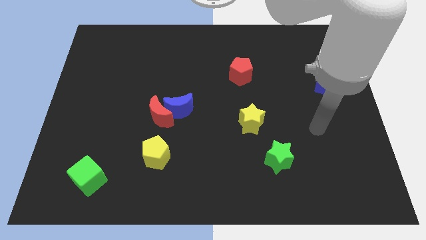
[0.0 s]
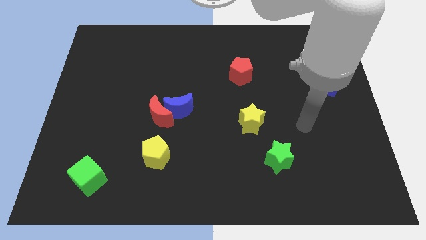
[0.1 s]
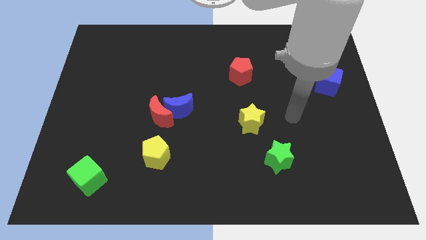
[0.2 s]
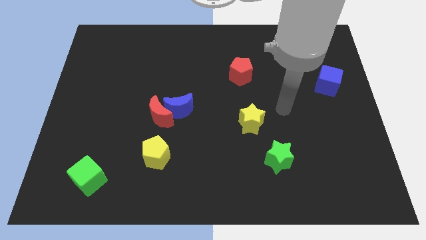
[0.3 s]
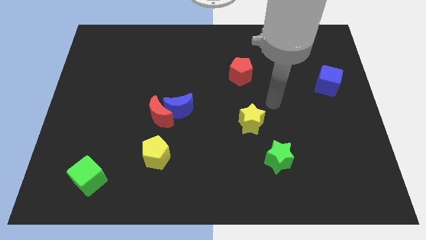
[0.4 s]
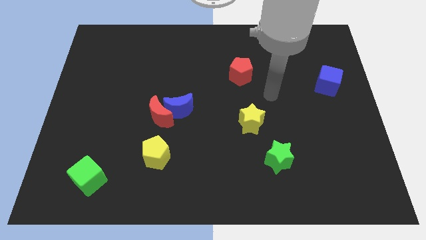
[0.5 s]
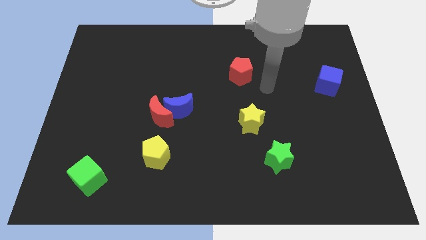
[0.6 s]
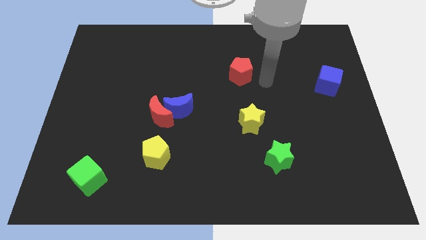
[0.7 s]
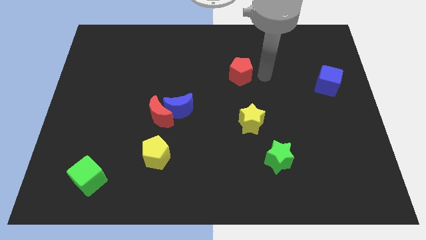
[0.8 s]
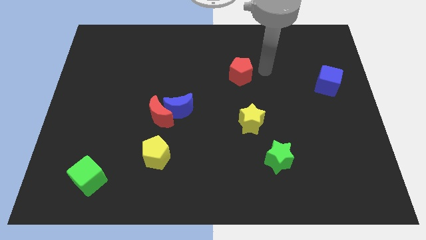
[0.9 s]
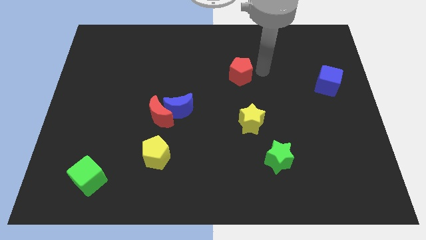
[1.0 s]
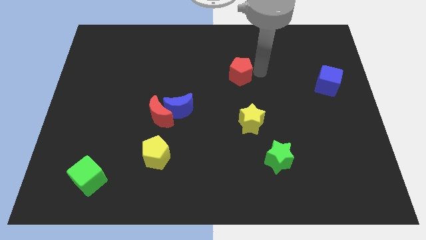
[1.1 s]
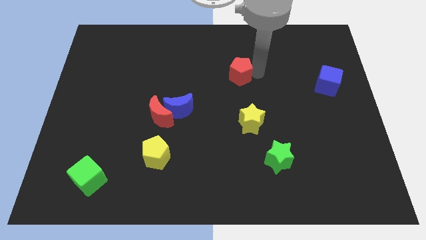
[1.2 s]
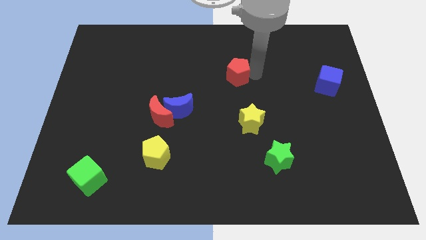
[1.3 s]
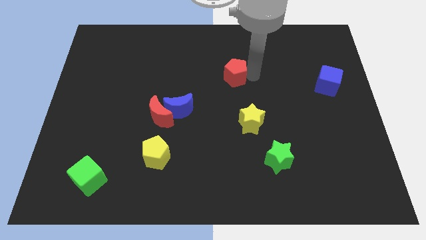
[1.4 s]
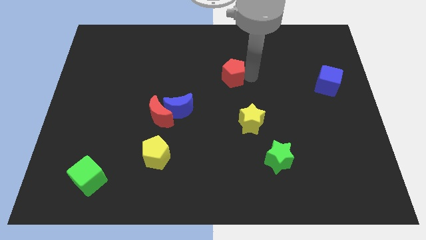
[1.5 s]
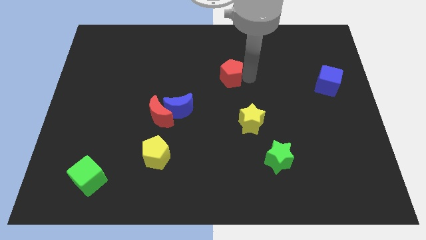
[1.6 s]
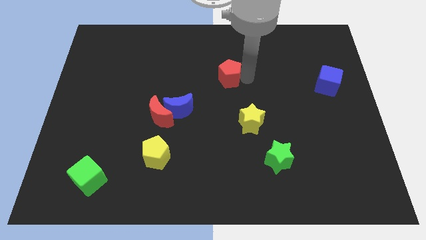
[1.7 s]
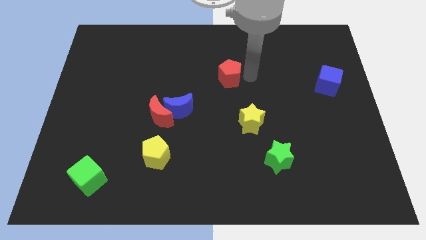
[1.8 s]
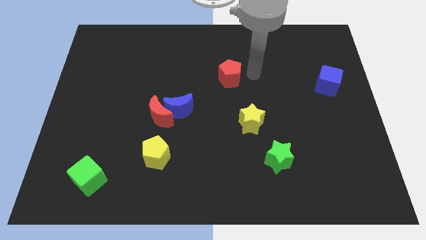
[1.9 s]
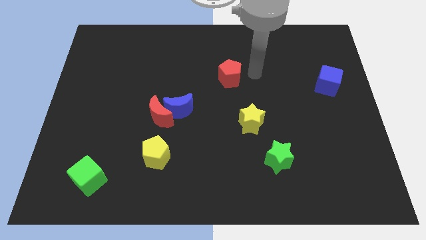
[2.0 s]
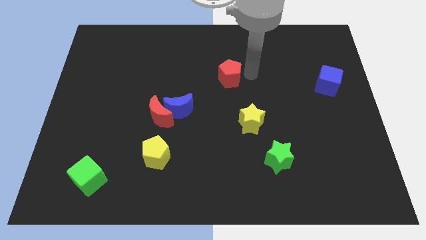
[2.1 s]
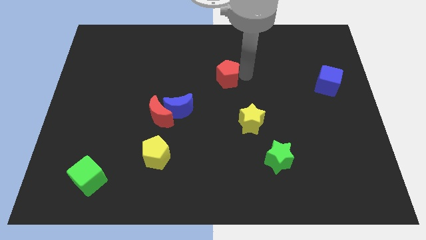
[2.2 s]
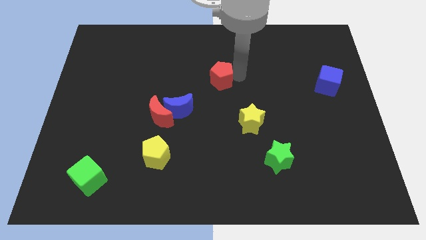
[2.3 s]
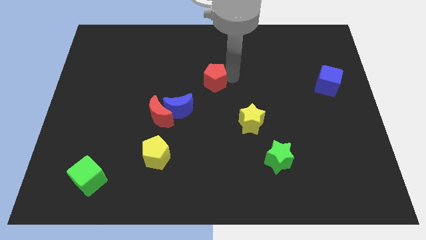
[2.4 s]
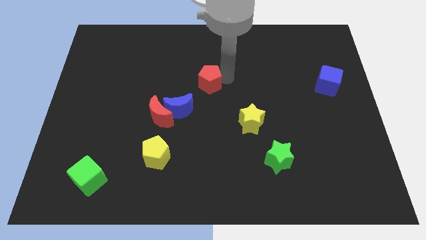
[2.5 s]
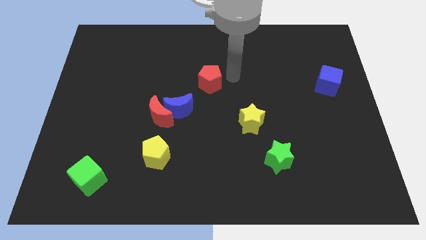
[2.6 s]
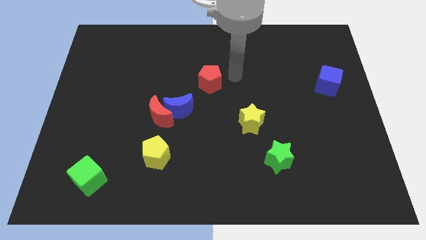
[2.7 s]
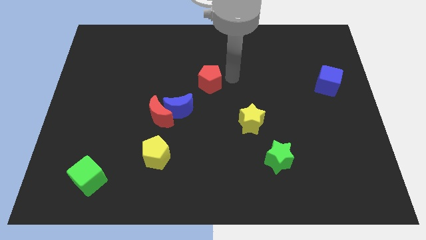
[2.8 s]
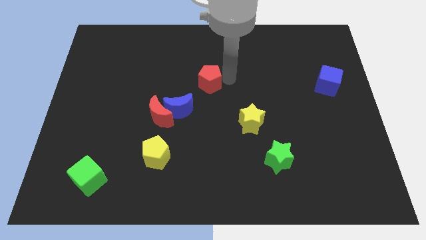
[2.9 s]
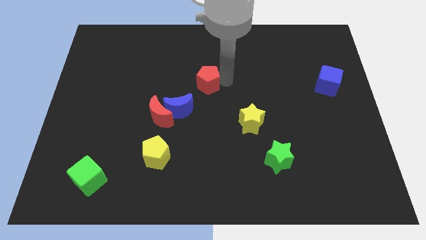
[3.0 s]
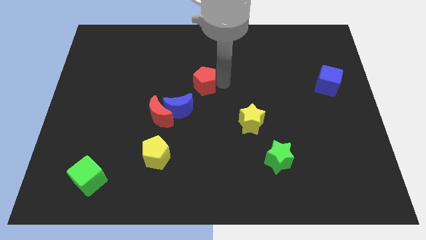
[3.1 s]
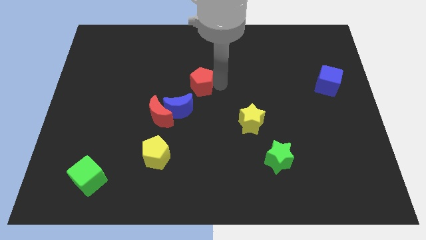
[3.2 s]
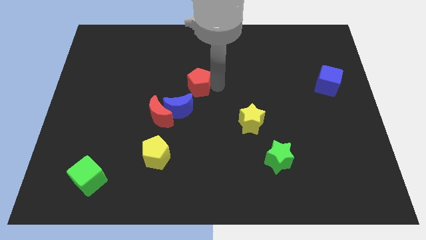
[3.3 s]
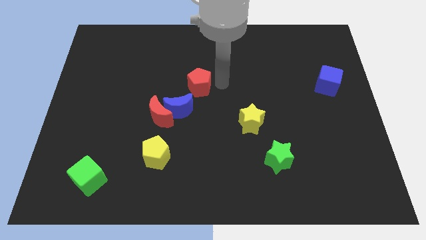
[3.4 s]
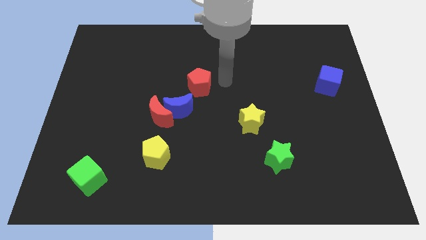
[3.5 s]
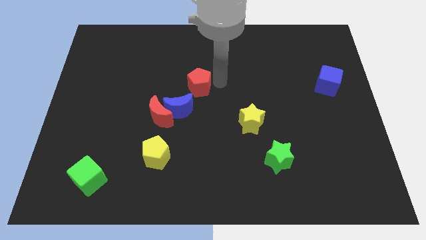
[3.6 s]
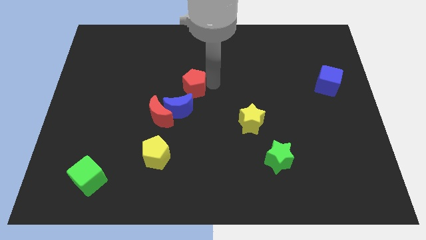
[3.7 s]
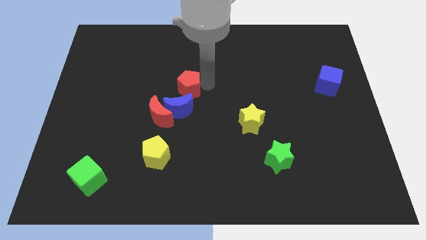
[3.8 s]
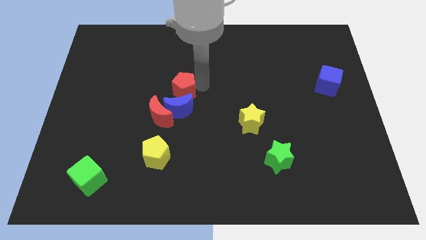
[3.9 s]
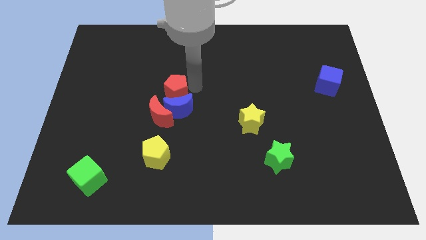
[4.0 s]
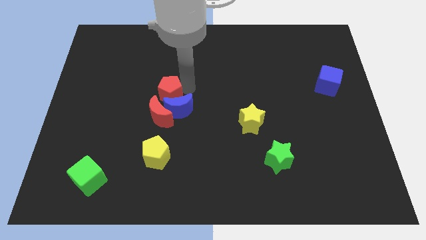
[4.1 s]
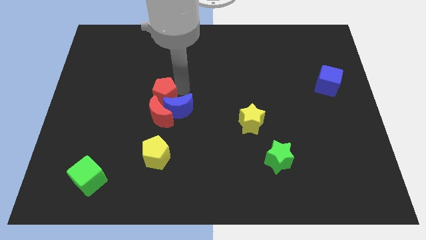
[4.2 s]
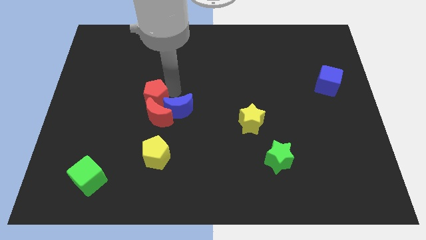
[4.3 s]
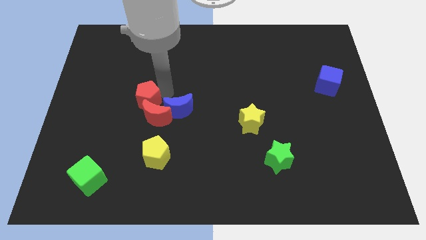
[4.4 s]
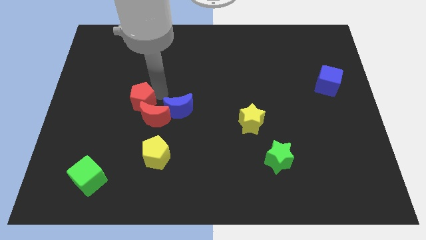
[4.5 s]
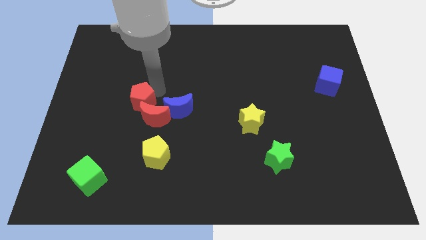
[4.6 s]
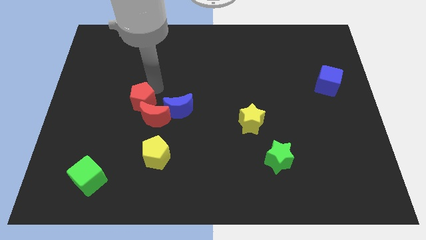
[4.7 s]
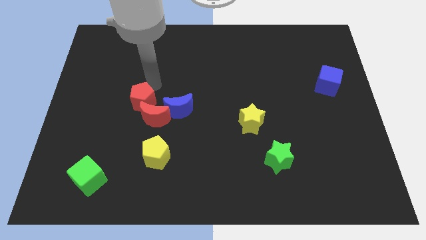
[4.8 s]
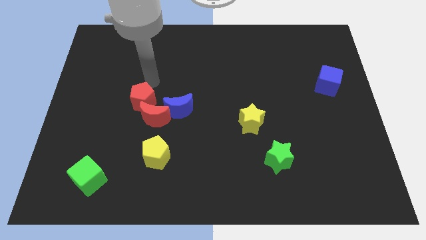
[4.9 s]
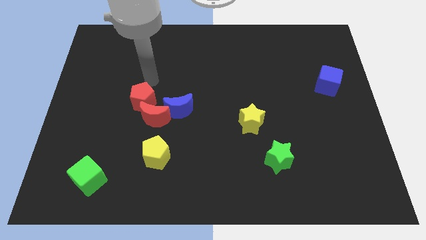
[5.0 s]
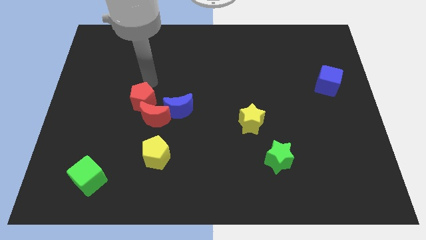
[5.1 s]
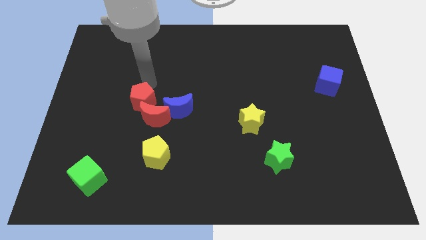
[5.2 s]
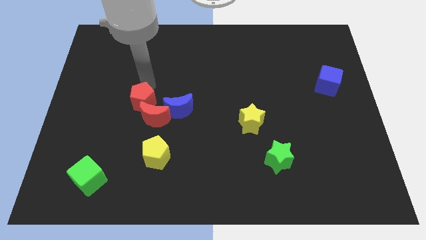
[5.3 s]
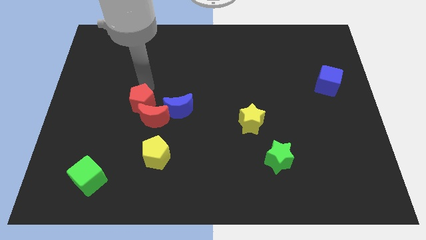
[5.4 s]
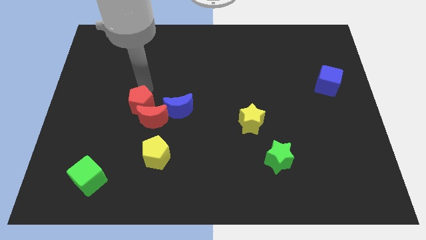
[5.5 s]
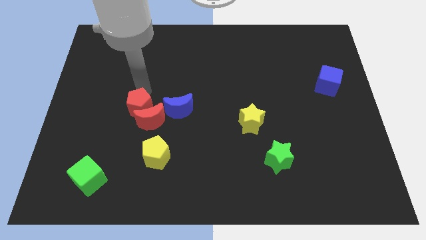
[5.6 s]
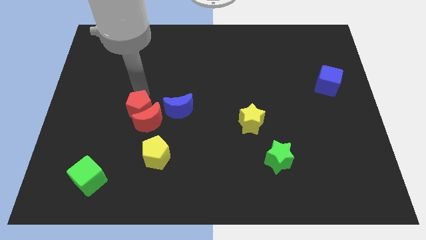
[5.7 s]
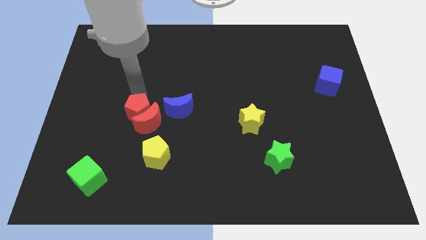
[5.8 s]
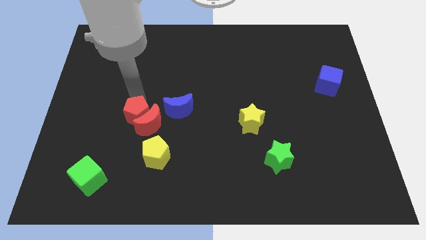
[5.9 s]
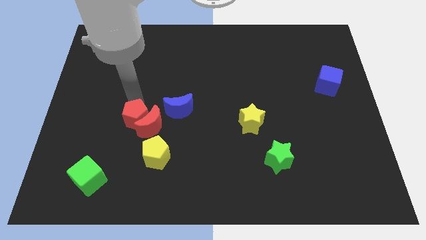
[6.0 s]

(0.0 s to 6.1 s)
move the red pentagon to the bottom left of the red moon

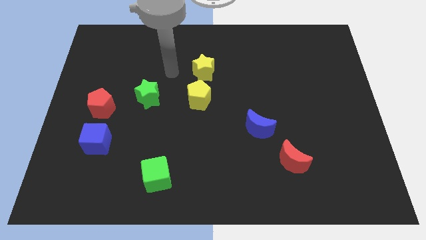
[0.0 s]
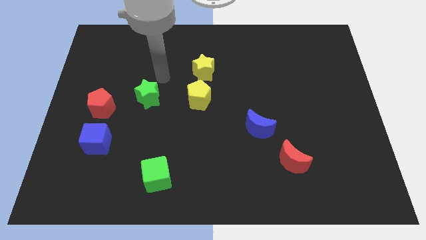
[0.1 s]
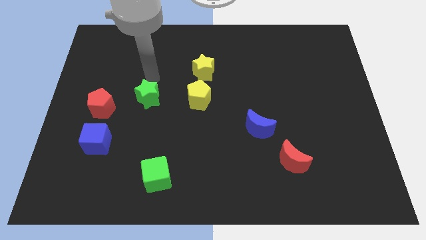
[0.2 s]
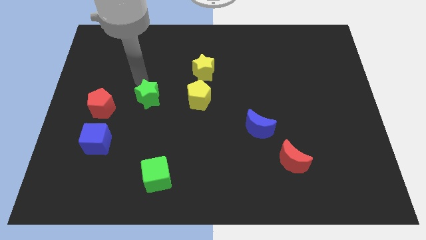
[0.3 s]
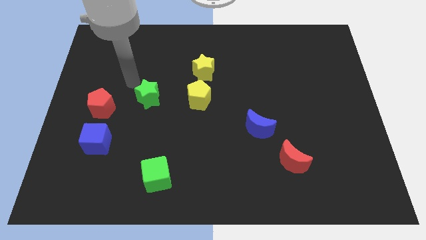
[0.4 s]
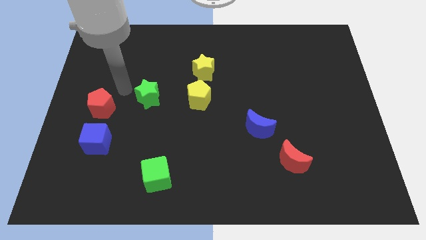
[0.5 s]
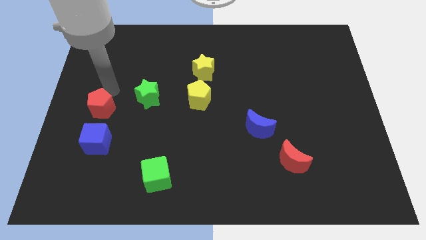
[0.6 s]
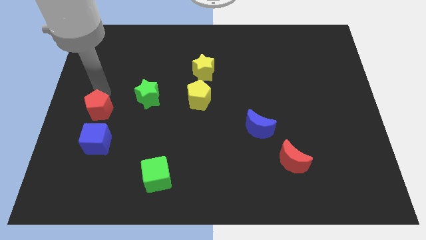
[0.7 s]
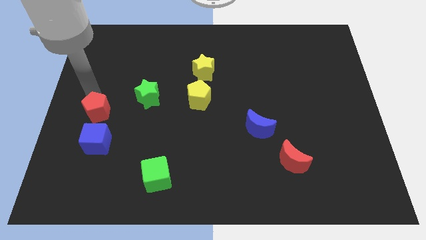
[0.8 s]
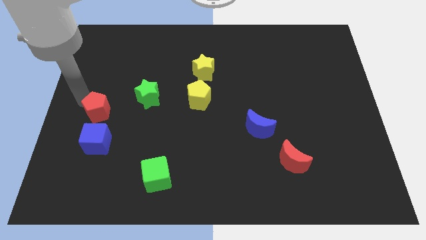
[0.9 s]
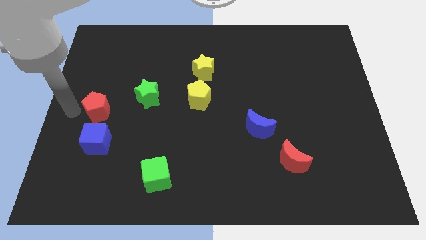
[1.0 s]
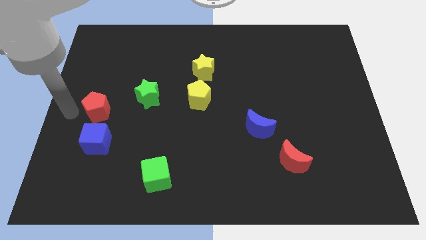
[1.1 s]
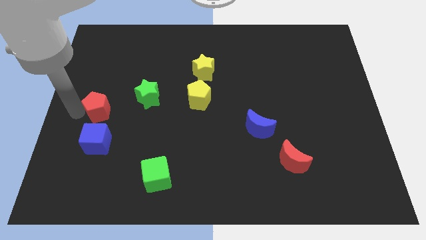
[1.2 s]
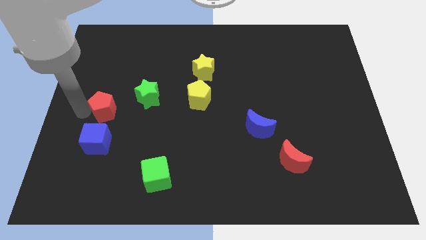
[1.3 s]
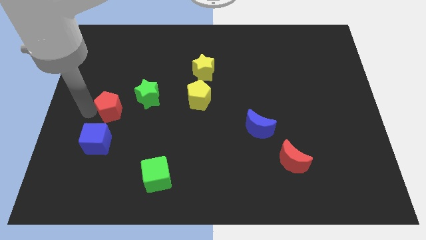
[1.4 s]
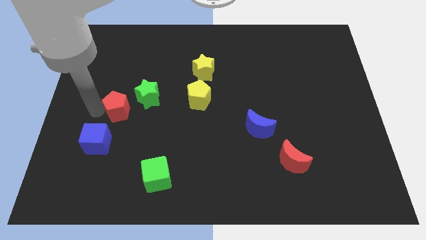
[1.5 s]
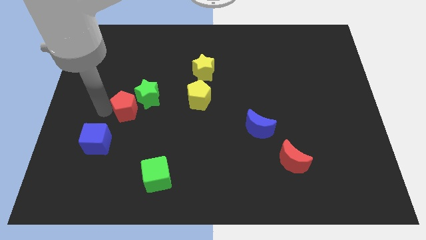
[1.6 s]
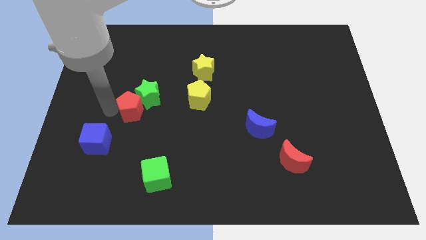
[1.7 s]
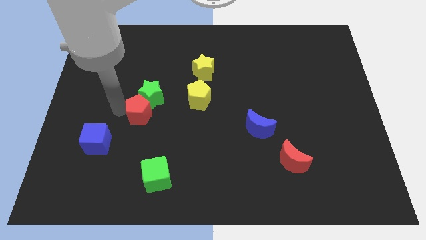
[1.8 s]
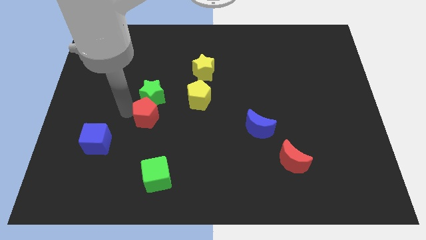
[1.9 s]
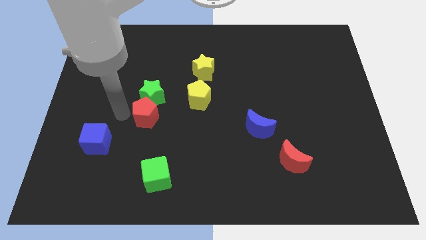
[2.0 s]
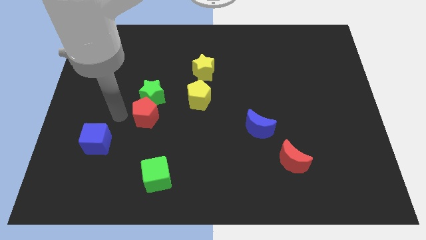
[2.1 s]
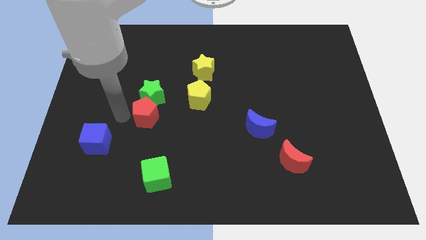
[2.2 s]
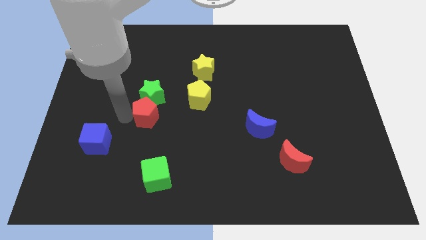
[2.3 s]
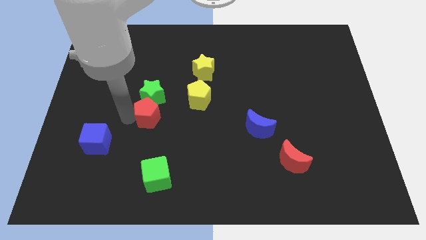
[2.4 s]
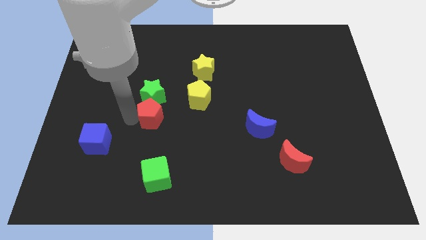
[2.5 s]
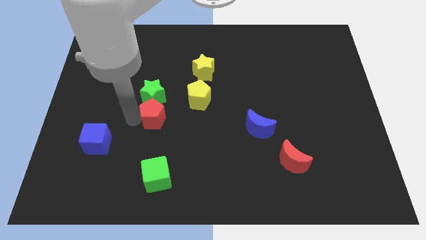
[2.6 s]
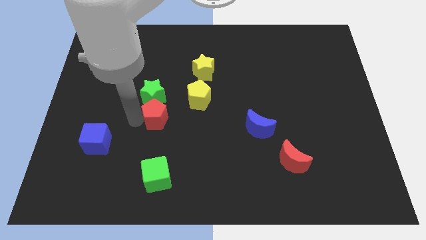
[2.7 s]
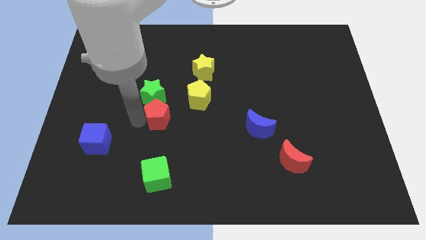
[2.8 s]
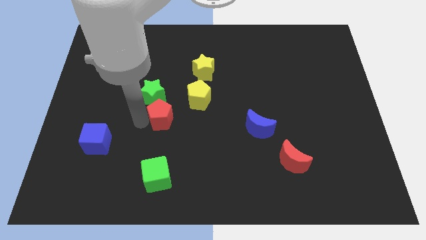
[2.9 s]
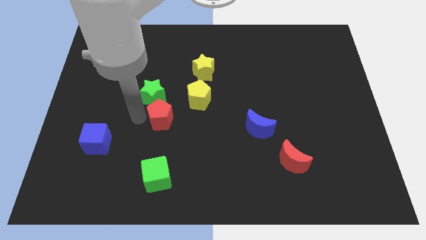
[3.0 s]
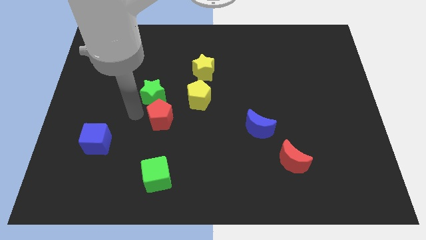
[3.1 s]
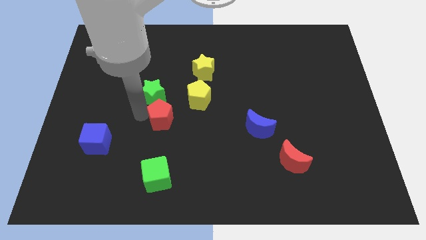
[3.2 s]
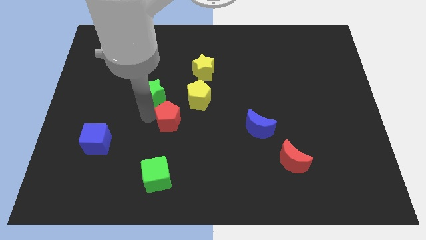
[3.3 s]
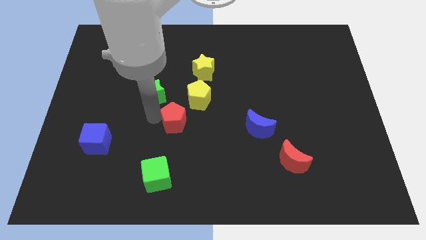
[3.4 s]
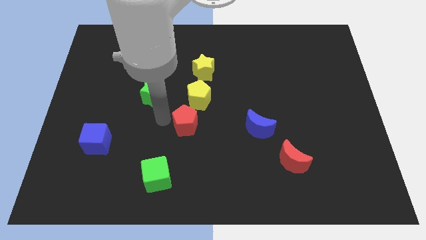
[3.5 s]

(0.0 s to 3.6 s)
move the red pentagon just left of the blue moon
